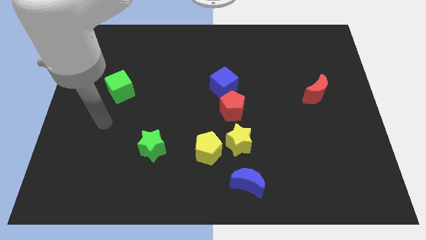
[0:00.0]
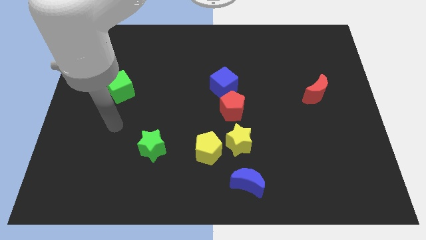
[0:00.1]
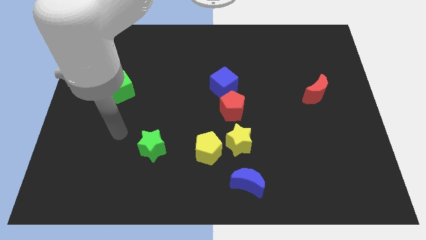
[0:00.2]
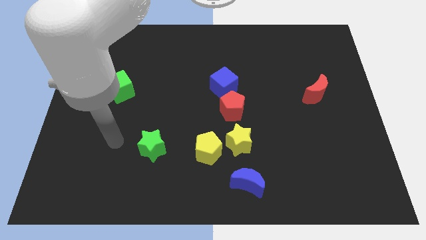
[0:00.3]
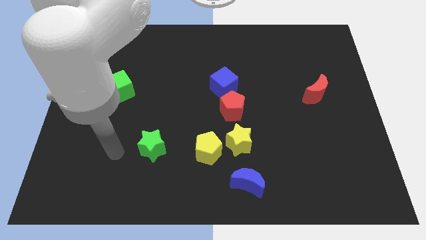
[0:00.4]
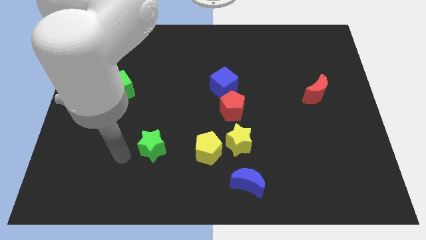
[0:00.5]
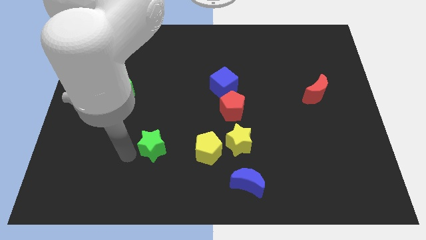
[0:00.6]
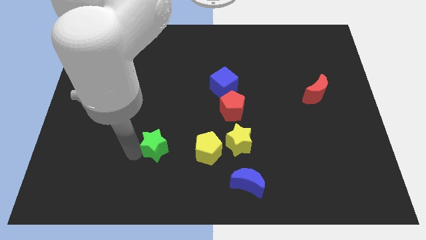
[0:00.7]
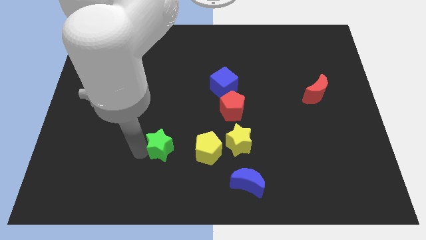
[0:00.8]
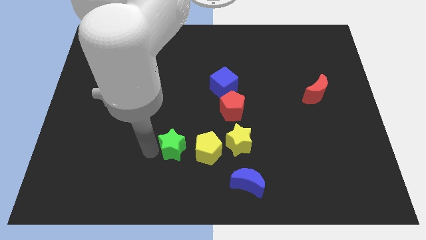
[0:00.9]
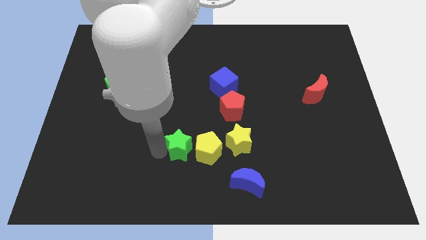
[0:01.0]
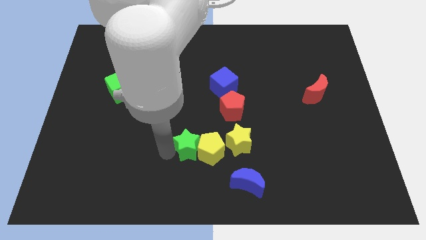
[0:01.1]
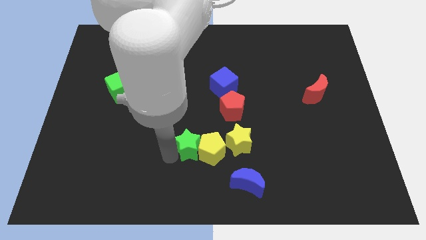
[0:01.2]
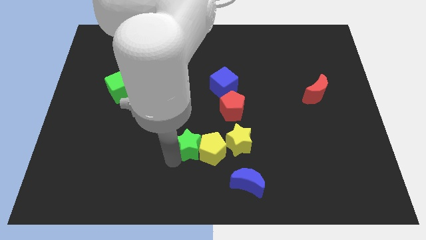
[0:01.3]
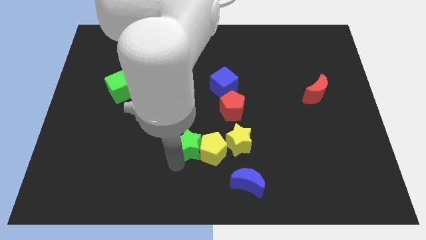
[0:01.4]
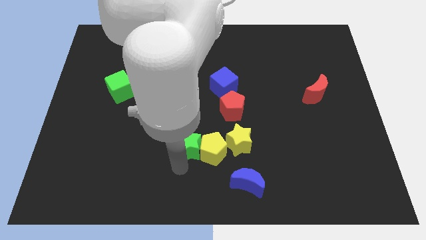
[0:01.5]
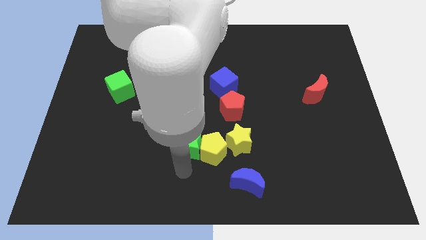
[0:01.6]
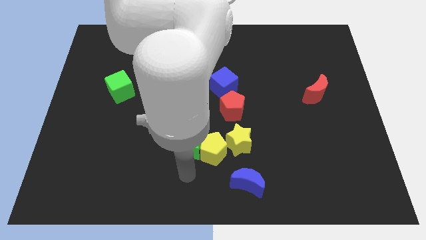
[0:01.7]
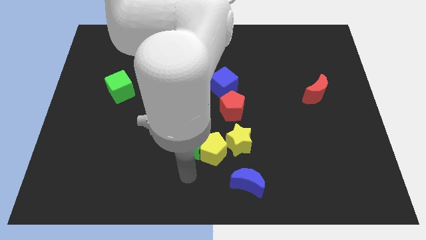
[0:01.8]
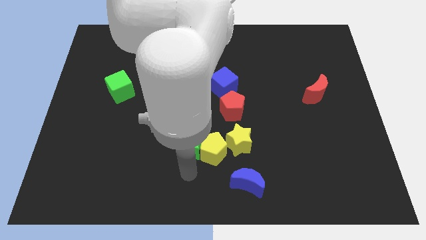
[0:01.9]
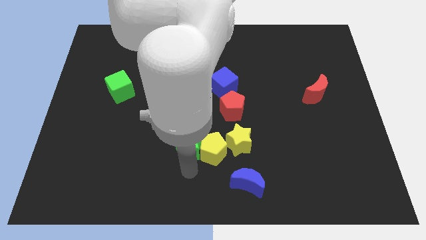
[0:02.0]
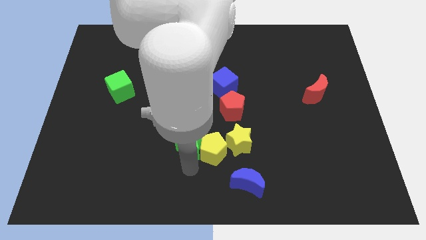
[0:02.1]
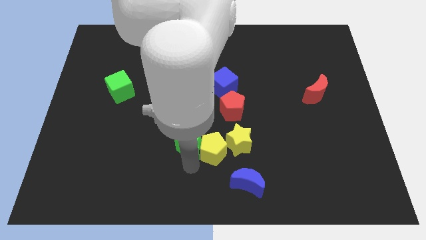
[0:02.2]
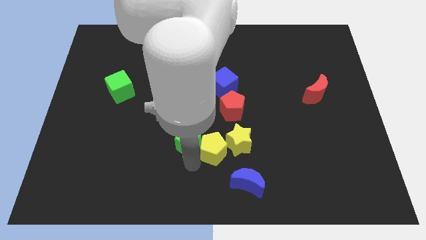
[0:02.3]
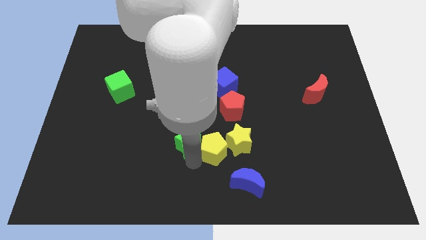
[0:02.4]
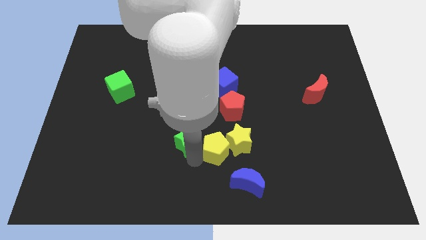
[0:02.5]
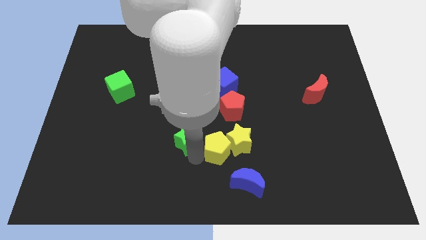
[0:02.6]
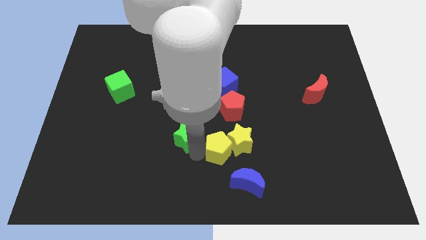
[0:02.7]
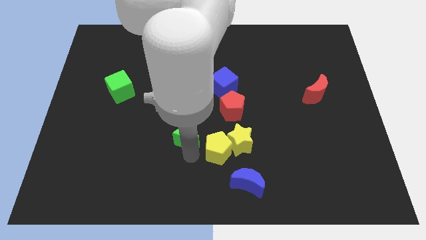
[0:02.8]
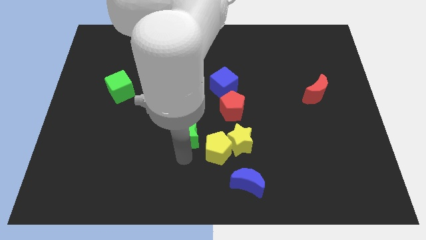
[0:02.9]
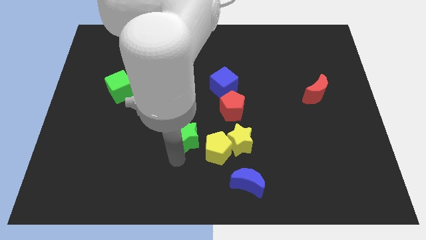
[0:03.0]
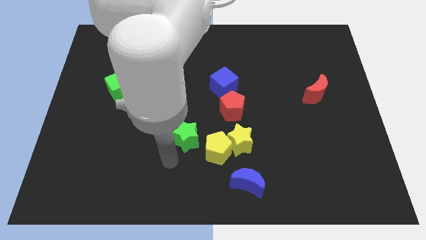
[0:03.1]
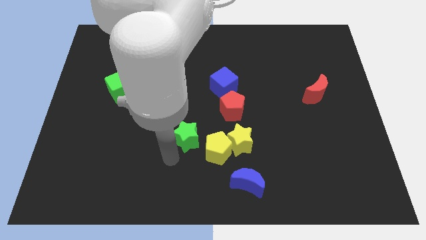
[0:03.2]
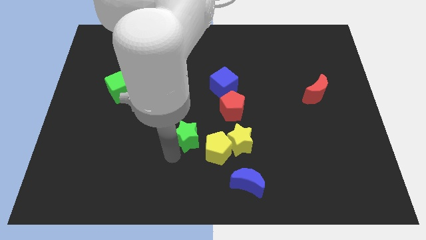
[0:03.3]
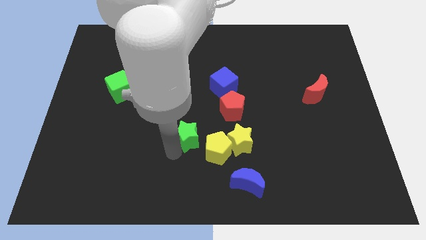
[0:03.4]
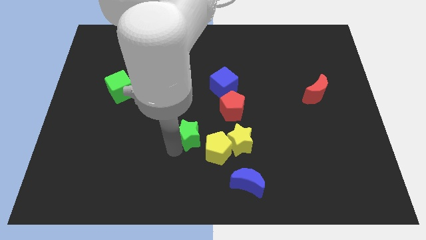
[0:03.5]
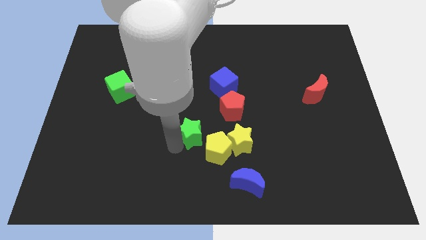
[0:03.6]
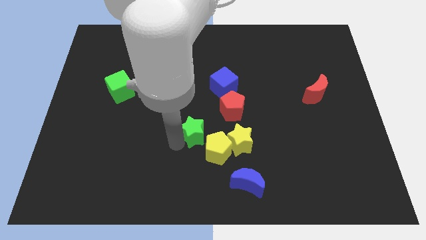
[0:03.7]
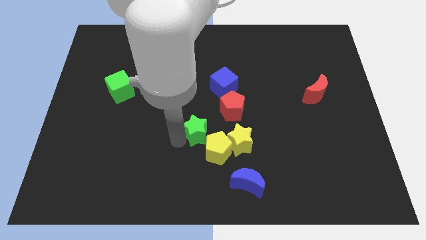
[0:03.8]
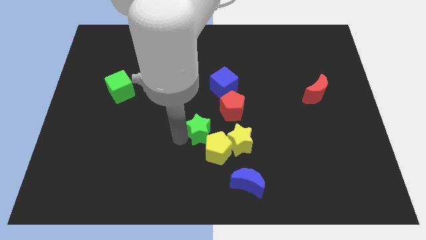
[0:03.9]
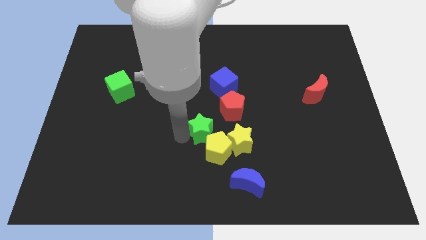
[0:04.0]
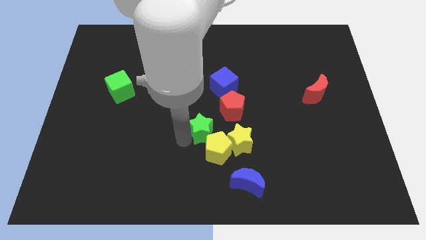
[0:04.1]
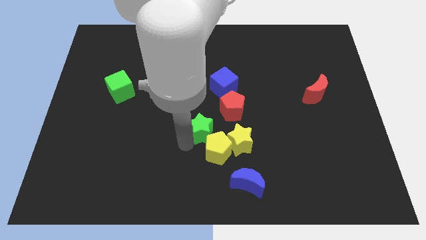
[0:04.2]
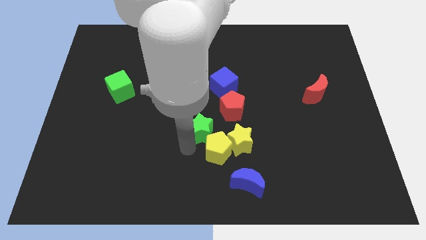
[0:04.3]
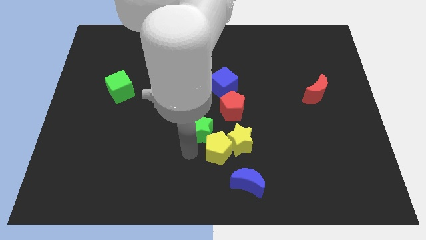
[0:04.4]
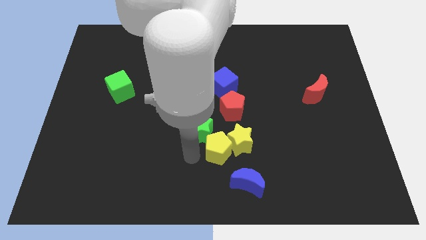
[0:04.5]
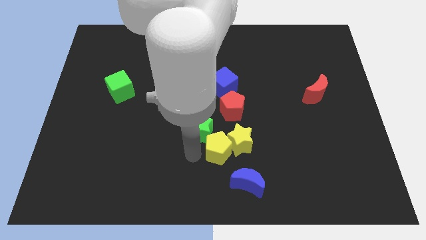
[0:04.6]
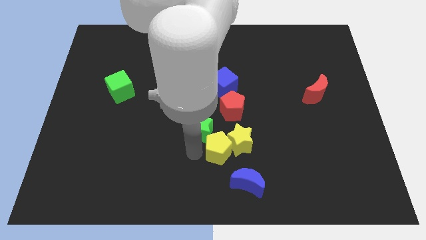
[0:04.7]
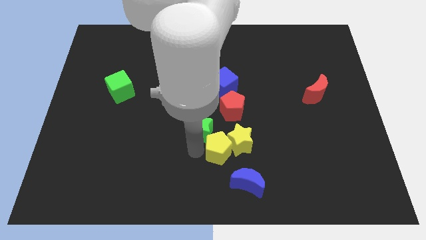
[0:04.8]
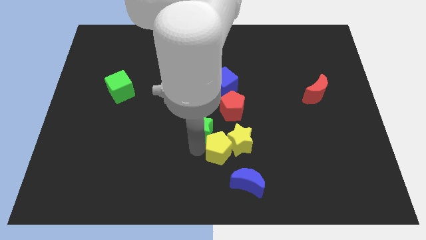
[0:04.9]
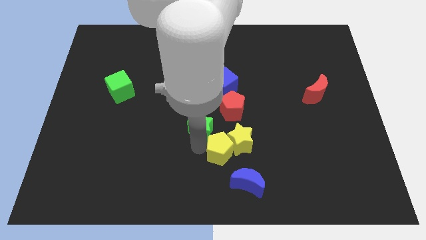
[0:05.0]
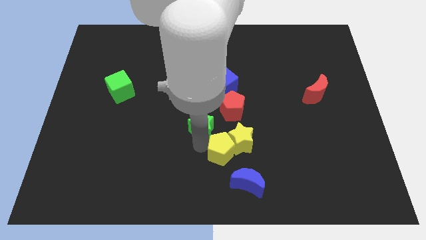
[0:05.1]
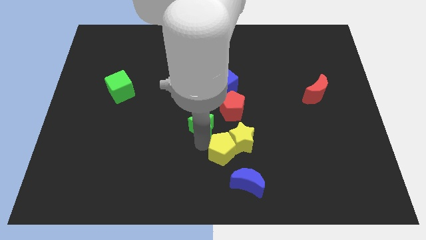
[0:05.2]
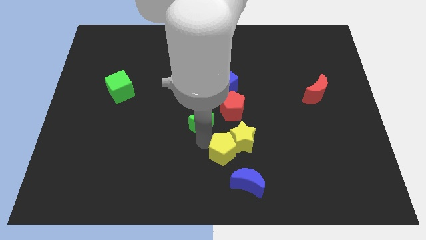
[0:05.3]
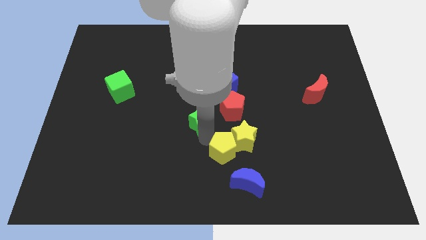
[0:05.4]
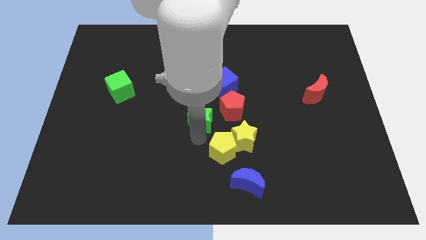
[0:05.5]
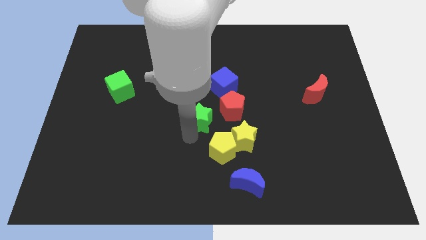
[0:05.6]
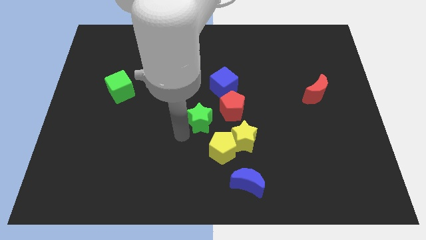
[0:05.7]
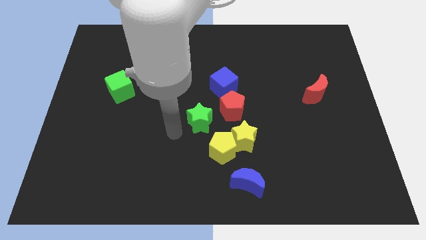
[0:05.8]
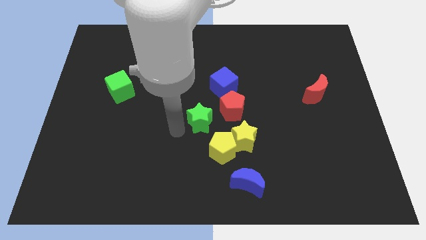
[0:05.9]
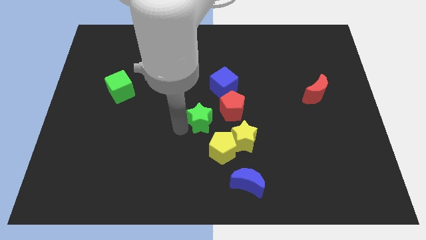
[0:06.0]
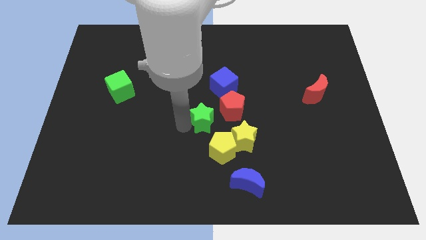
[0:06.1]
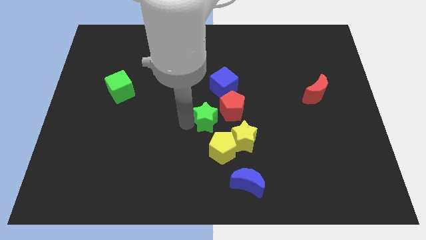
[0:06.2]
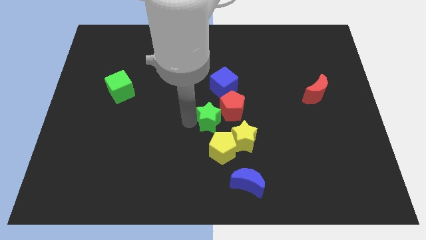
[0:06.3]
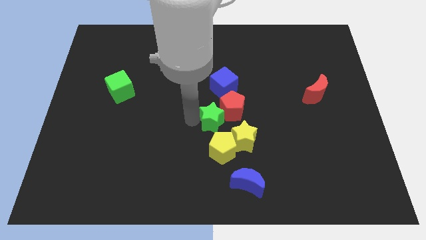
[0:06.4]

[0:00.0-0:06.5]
slide the green star to the red pentagon
